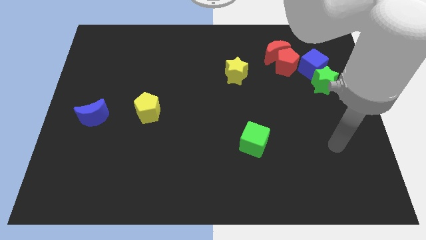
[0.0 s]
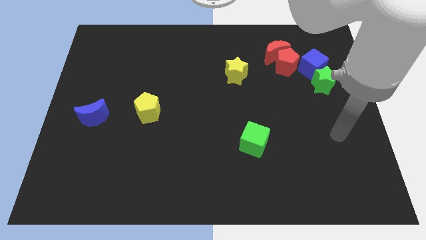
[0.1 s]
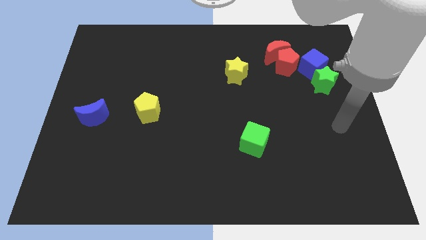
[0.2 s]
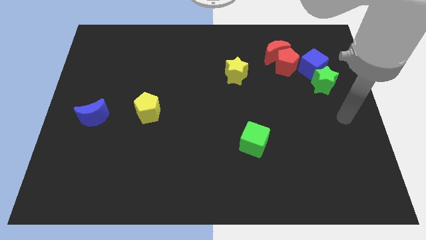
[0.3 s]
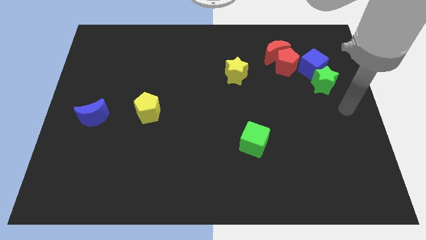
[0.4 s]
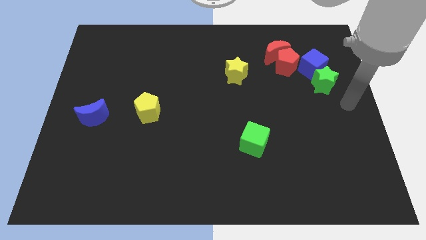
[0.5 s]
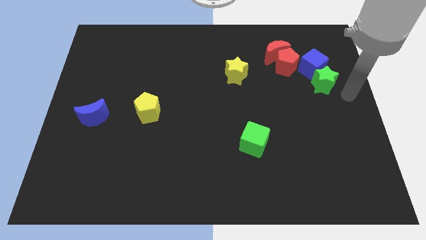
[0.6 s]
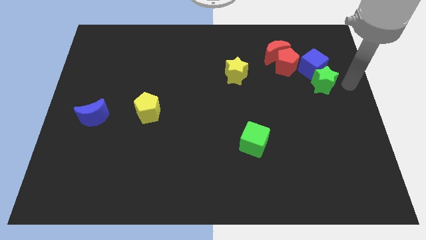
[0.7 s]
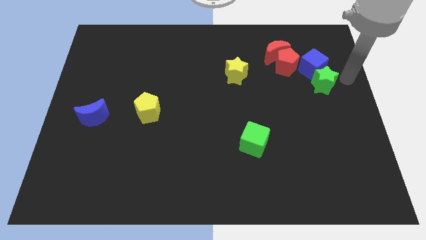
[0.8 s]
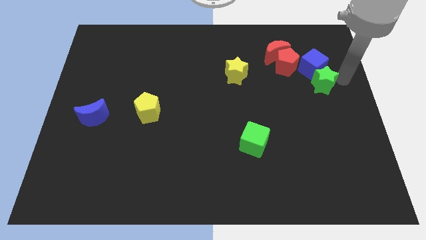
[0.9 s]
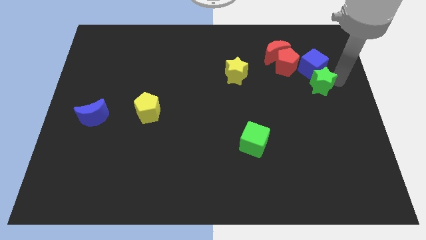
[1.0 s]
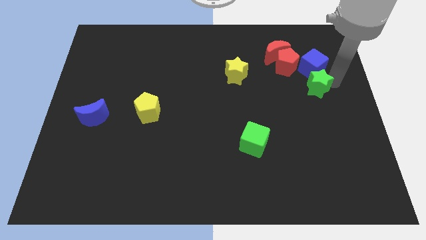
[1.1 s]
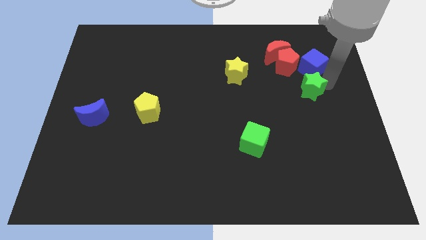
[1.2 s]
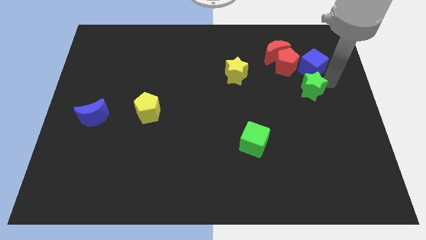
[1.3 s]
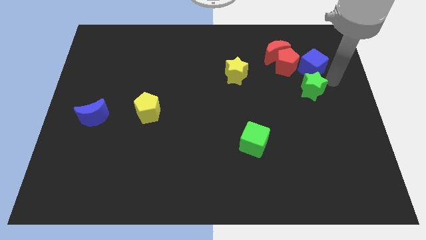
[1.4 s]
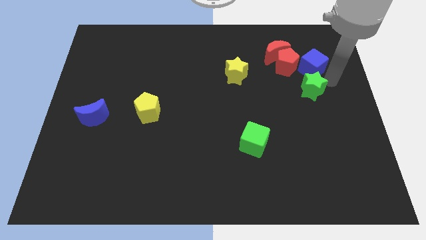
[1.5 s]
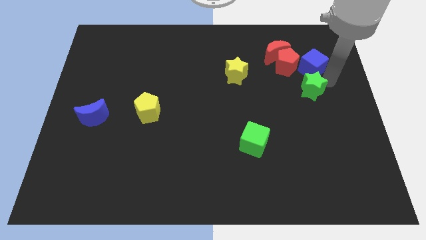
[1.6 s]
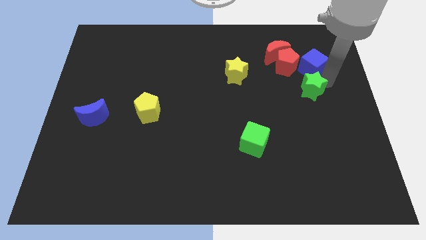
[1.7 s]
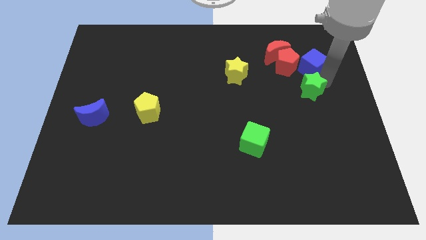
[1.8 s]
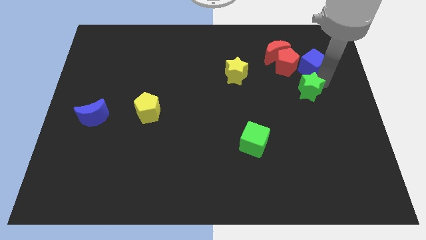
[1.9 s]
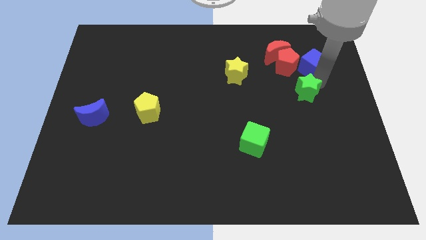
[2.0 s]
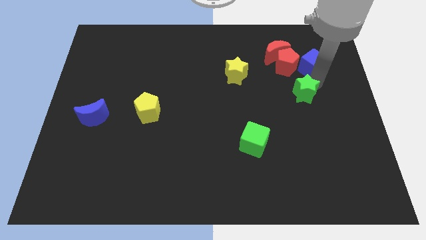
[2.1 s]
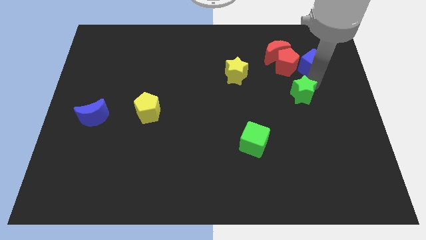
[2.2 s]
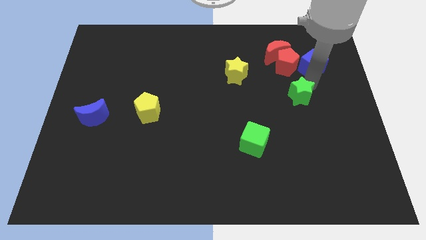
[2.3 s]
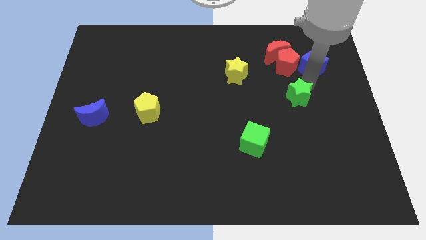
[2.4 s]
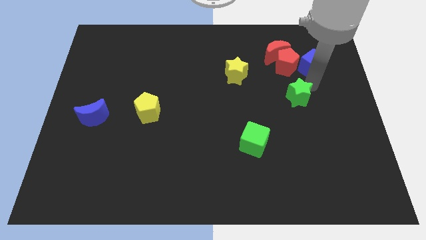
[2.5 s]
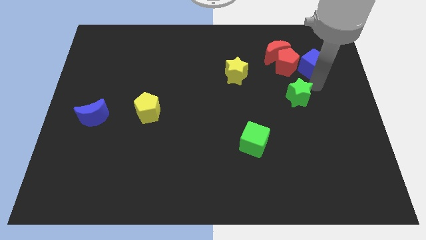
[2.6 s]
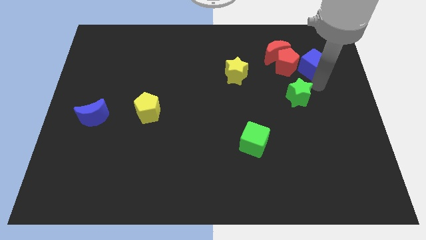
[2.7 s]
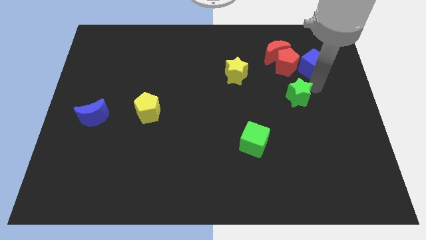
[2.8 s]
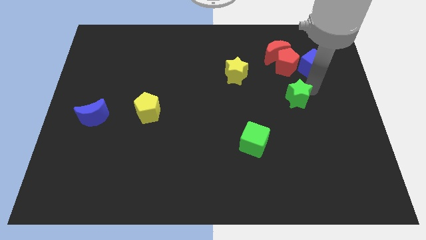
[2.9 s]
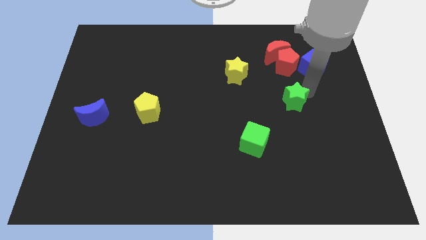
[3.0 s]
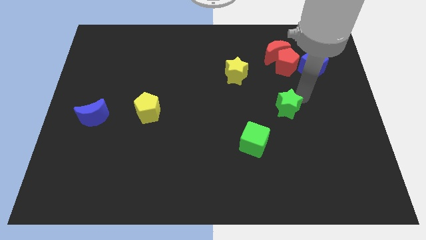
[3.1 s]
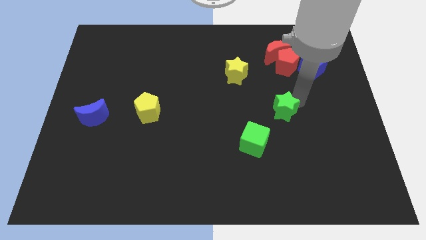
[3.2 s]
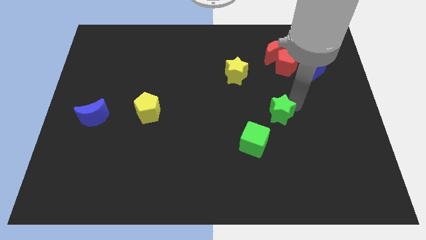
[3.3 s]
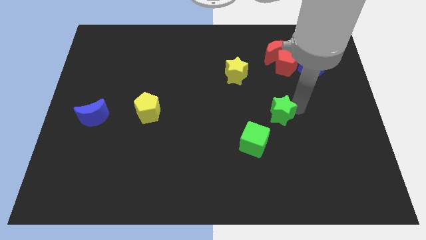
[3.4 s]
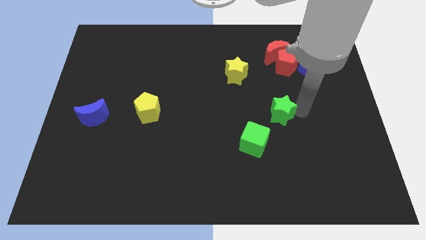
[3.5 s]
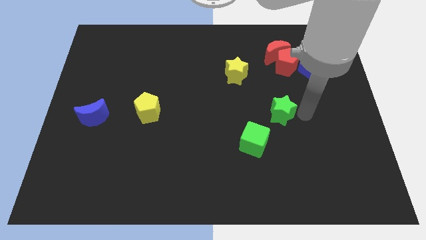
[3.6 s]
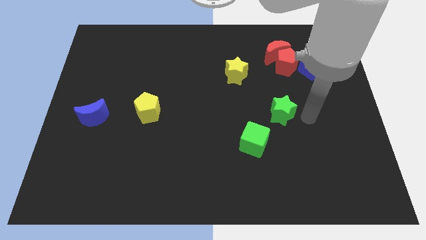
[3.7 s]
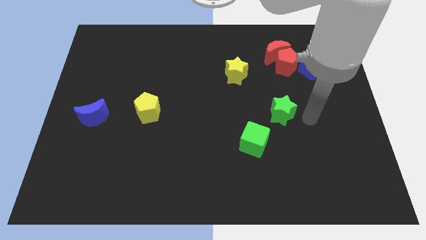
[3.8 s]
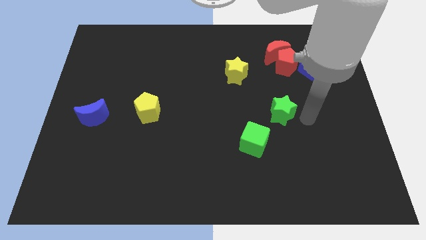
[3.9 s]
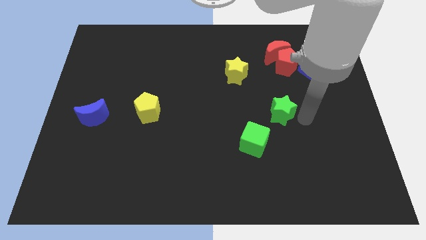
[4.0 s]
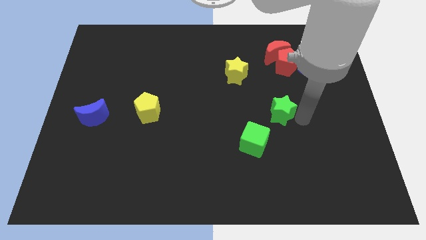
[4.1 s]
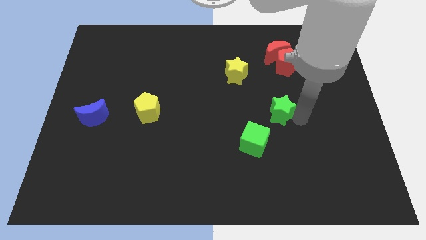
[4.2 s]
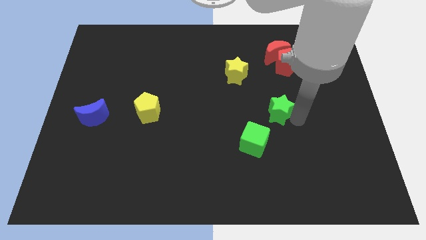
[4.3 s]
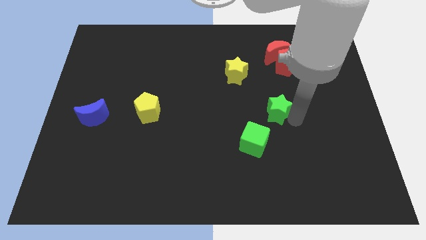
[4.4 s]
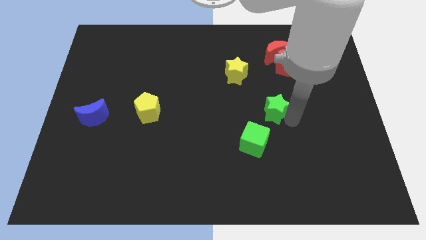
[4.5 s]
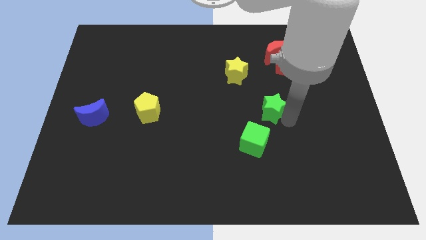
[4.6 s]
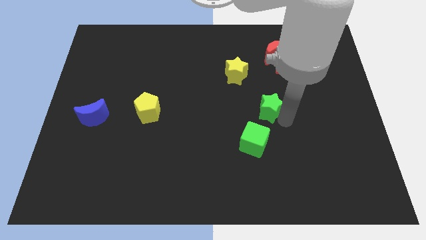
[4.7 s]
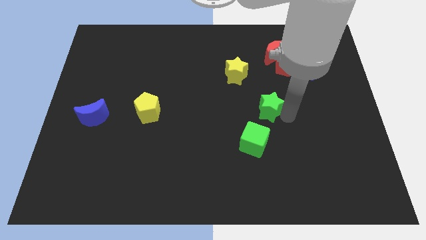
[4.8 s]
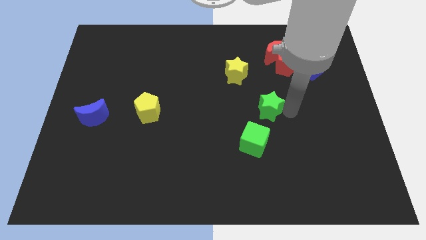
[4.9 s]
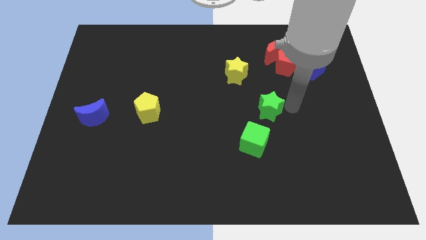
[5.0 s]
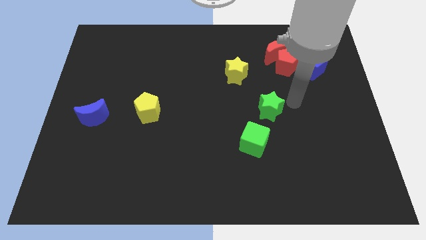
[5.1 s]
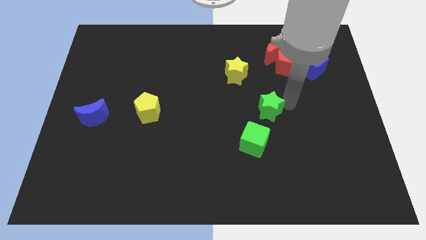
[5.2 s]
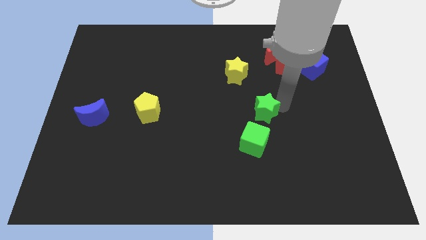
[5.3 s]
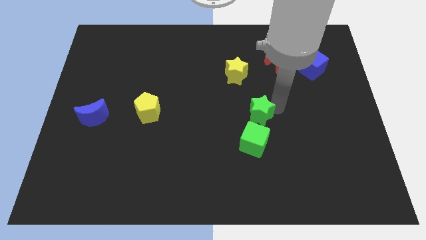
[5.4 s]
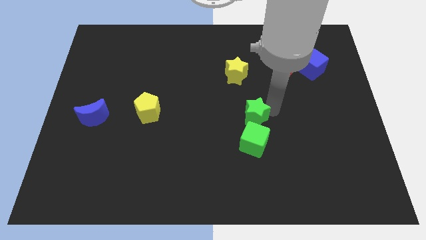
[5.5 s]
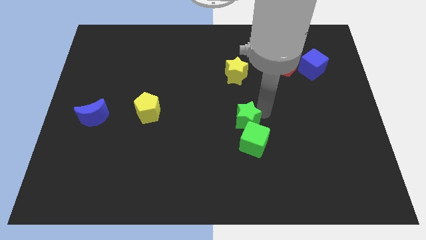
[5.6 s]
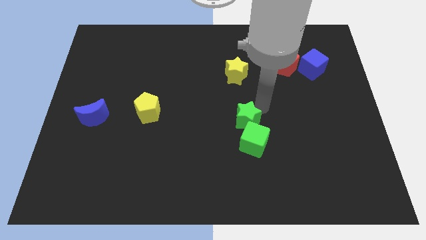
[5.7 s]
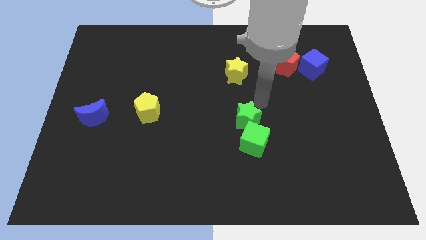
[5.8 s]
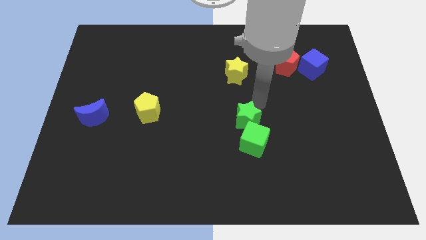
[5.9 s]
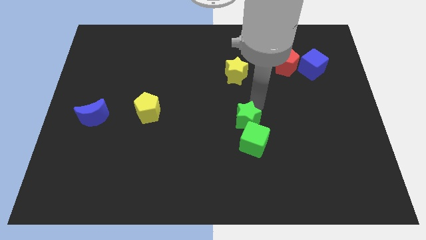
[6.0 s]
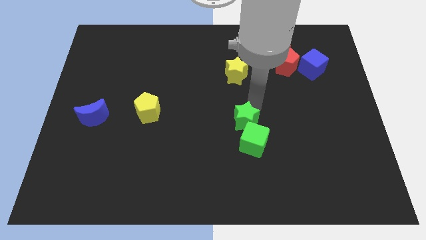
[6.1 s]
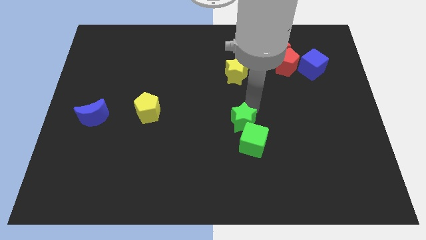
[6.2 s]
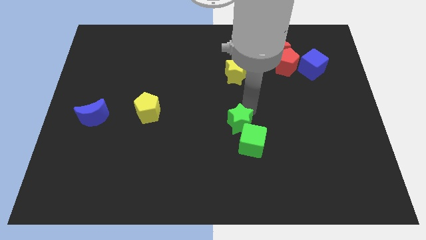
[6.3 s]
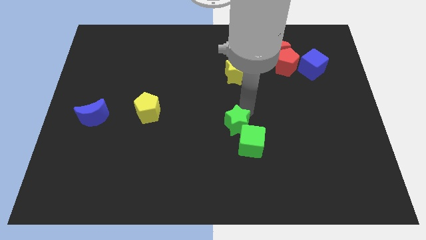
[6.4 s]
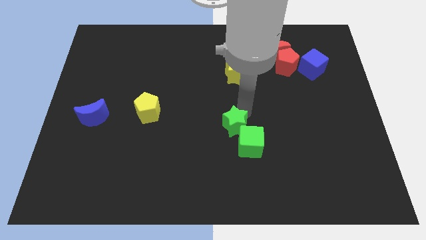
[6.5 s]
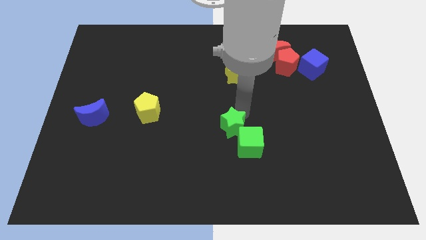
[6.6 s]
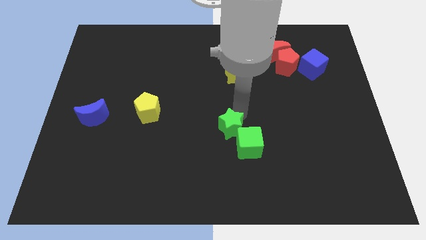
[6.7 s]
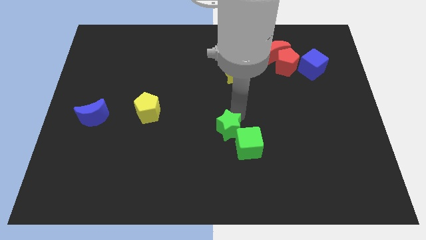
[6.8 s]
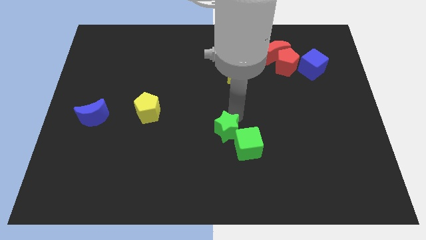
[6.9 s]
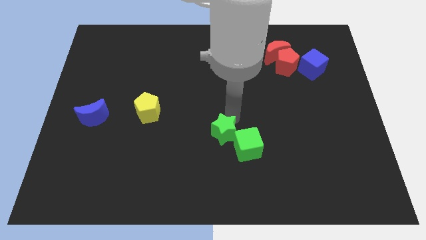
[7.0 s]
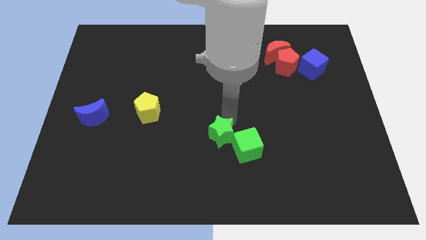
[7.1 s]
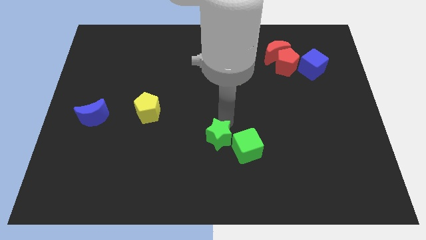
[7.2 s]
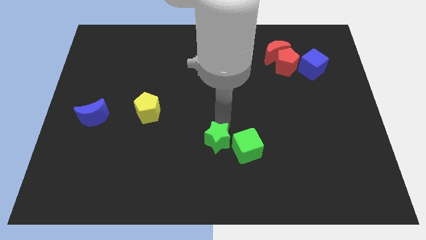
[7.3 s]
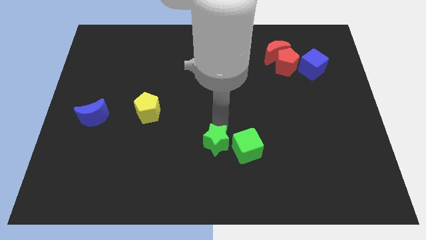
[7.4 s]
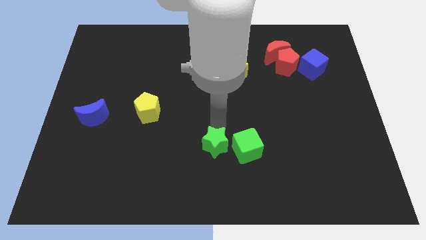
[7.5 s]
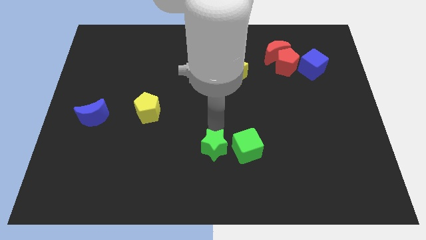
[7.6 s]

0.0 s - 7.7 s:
slide the green star to the bottom left side of the green cube
